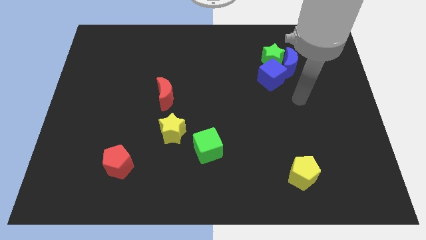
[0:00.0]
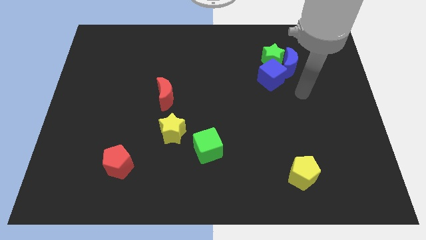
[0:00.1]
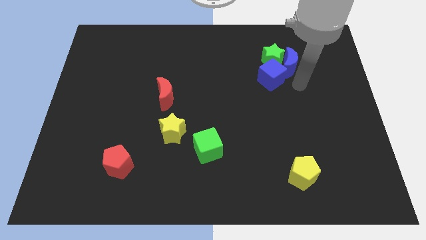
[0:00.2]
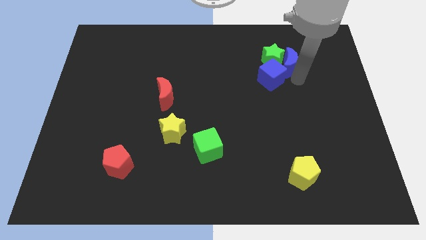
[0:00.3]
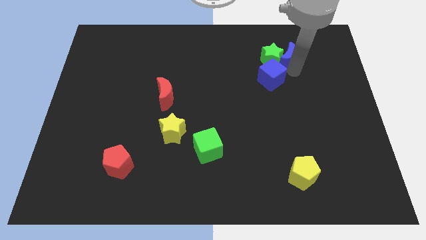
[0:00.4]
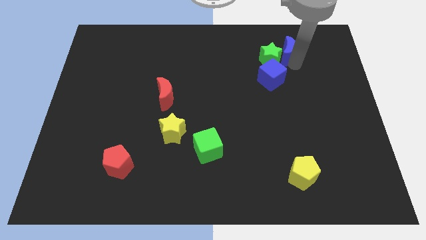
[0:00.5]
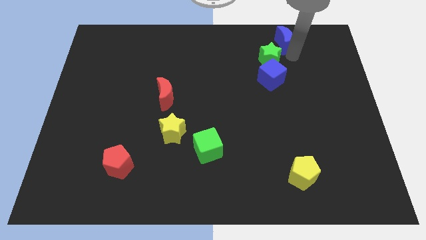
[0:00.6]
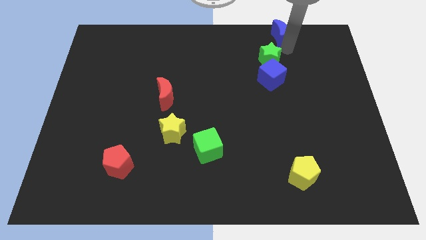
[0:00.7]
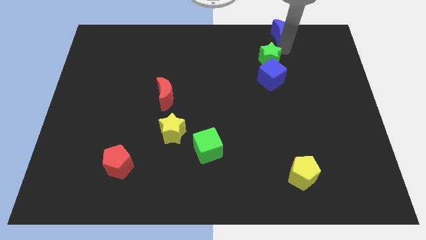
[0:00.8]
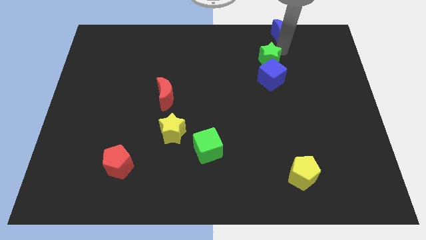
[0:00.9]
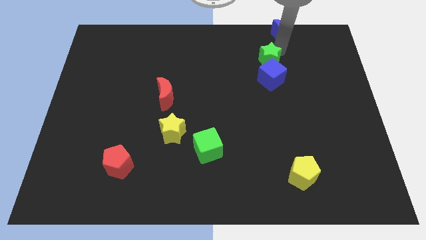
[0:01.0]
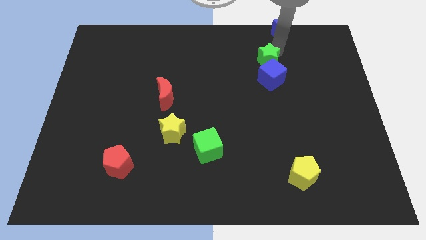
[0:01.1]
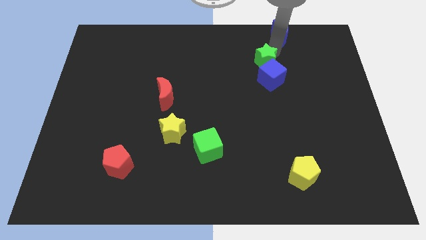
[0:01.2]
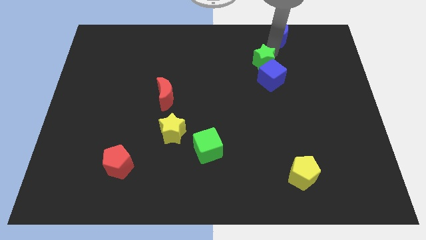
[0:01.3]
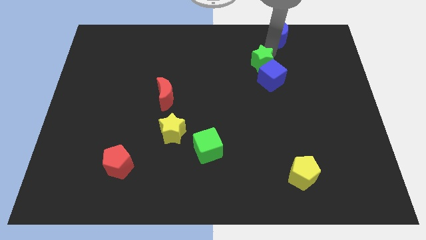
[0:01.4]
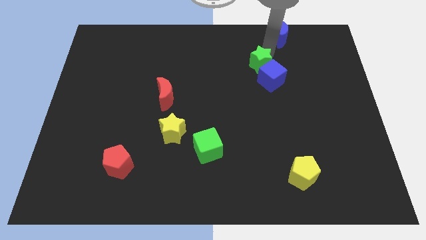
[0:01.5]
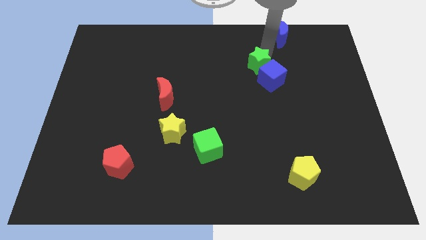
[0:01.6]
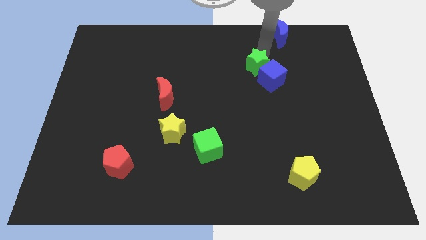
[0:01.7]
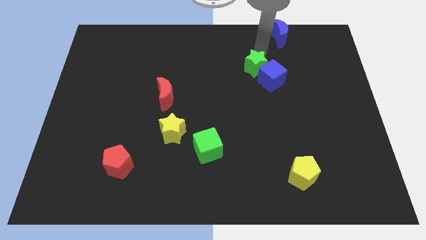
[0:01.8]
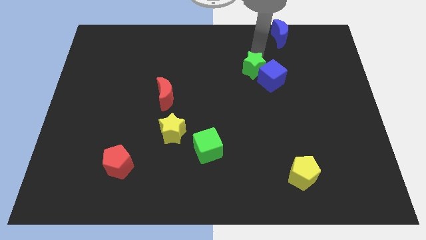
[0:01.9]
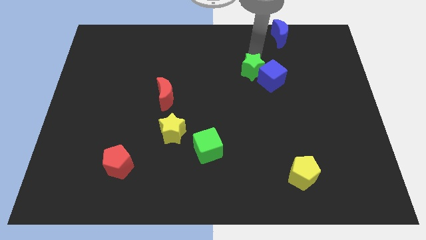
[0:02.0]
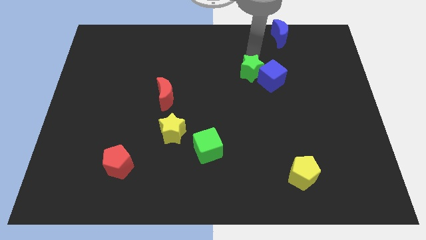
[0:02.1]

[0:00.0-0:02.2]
slide the green star a little bit downwards and left

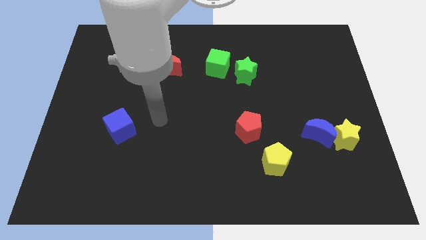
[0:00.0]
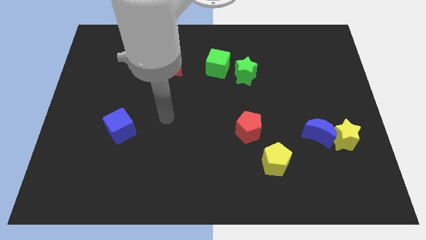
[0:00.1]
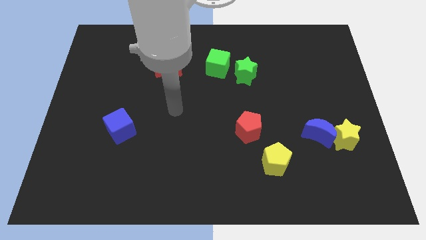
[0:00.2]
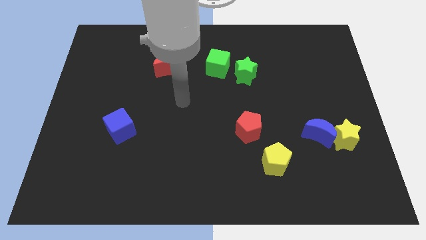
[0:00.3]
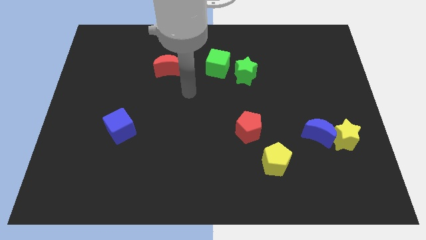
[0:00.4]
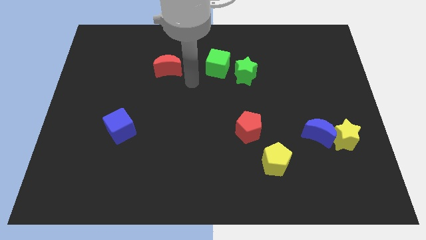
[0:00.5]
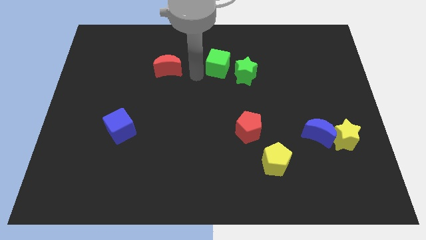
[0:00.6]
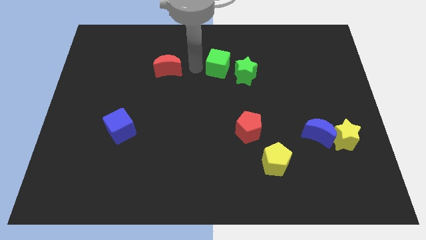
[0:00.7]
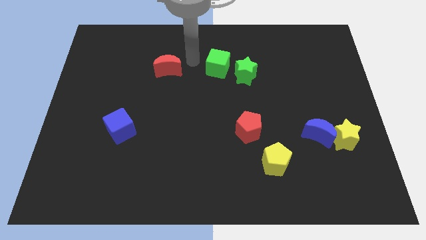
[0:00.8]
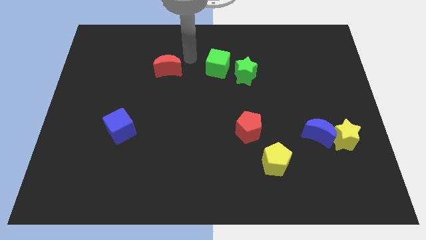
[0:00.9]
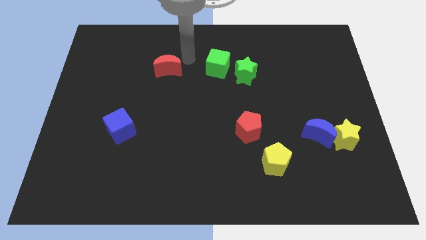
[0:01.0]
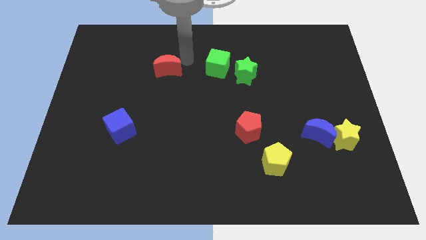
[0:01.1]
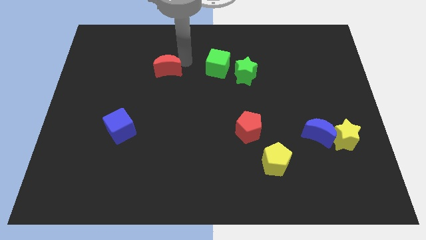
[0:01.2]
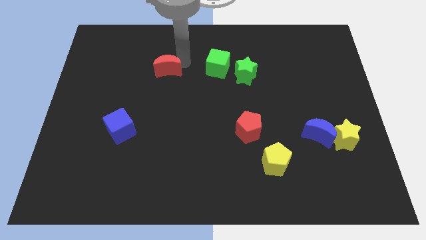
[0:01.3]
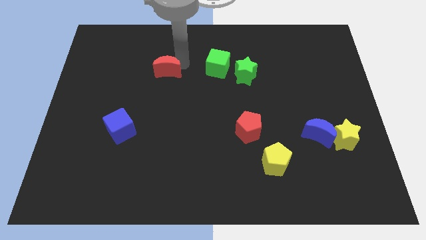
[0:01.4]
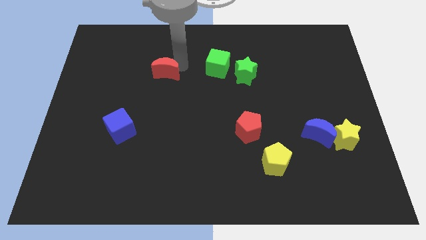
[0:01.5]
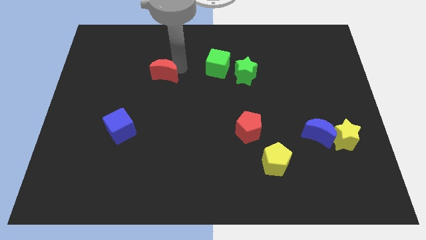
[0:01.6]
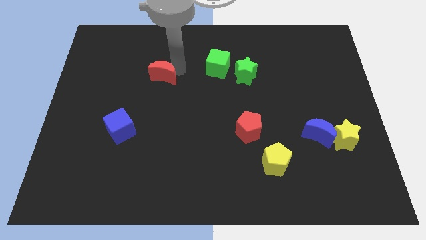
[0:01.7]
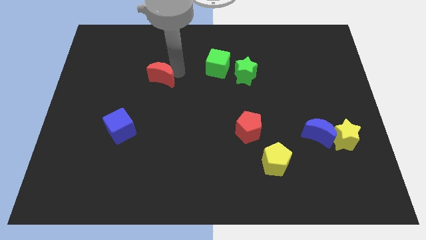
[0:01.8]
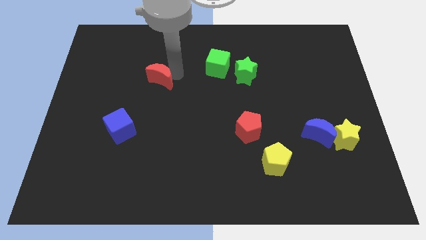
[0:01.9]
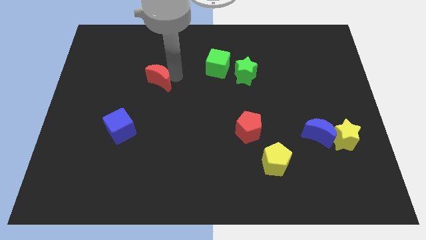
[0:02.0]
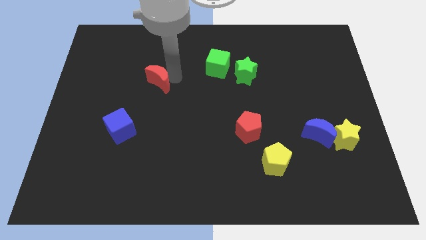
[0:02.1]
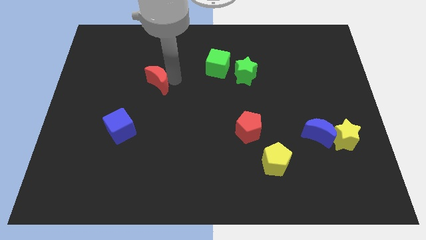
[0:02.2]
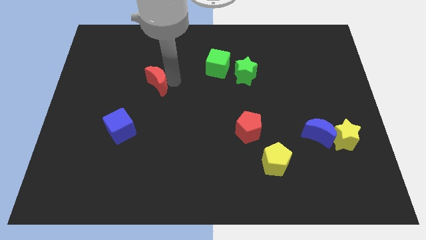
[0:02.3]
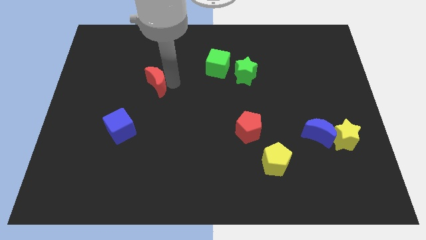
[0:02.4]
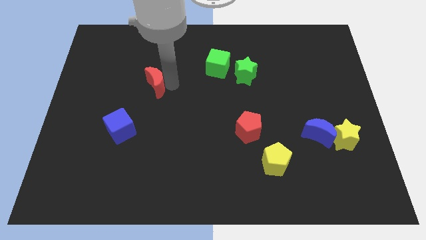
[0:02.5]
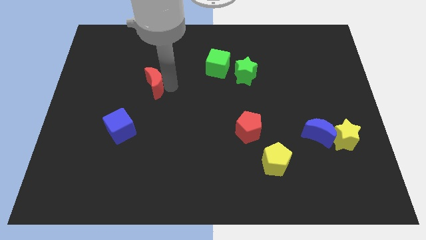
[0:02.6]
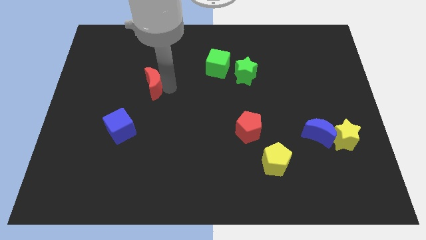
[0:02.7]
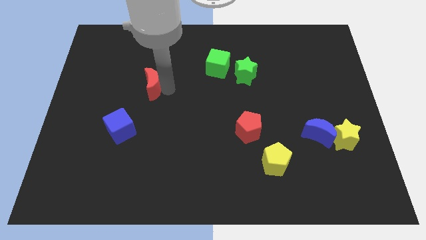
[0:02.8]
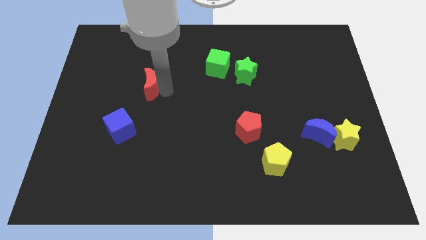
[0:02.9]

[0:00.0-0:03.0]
move the red moon downwards and to the left a little

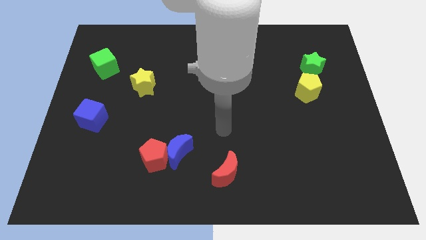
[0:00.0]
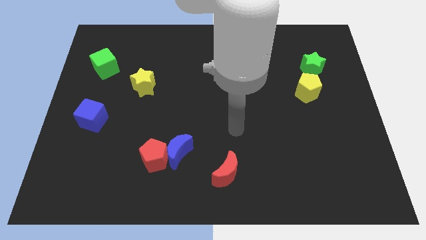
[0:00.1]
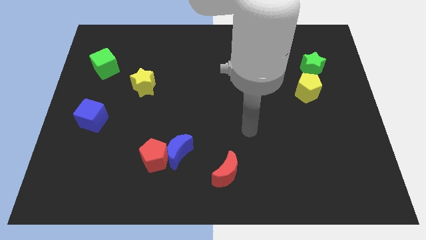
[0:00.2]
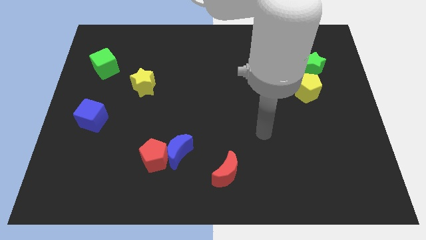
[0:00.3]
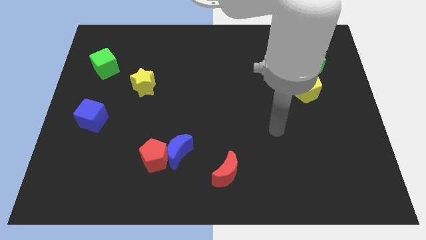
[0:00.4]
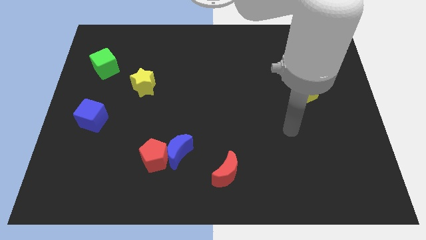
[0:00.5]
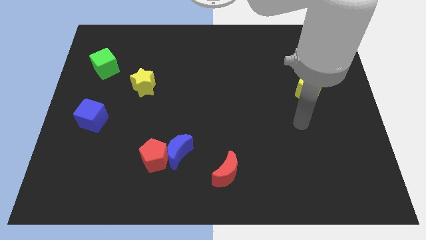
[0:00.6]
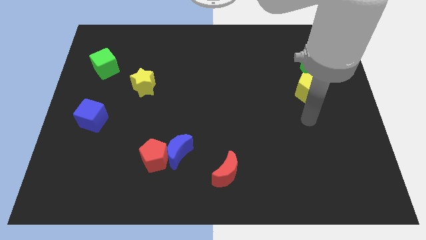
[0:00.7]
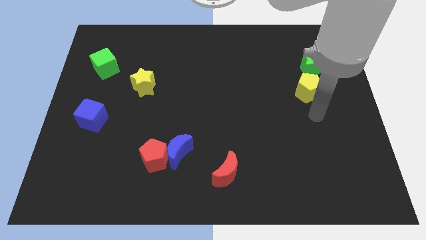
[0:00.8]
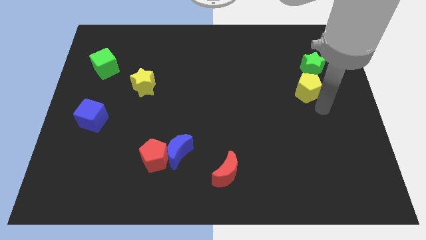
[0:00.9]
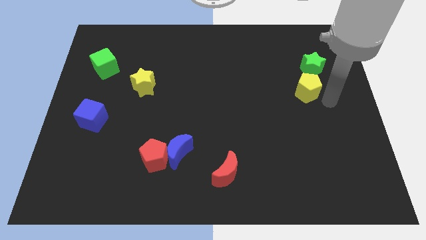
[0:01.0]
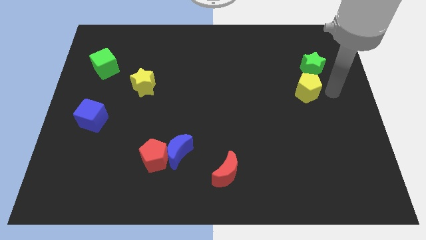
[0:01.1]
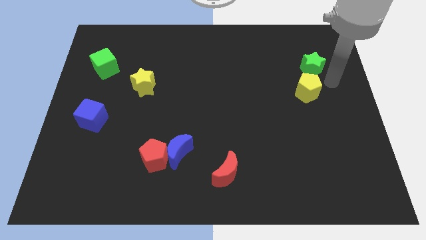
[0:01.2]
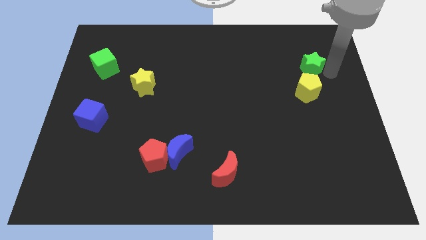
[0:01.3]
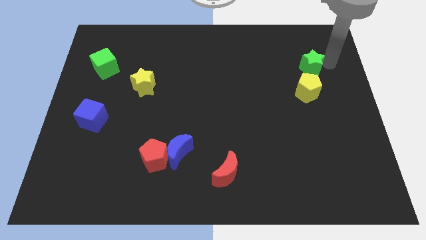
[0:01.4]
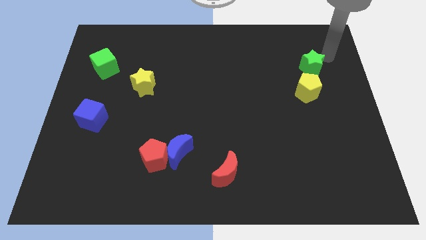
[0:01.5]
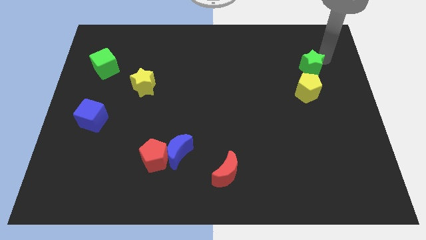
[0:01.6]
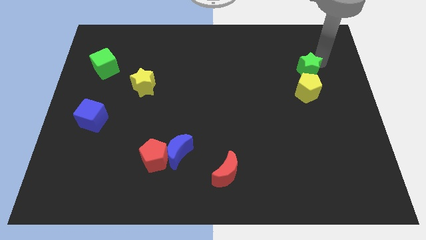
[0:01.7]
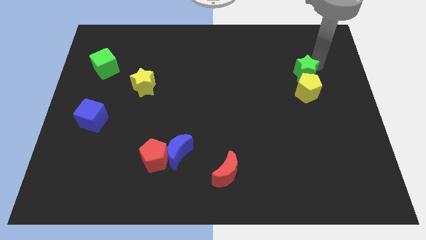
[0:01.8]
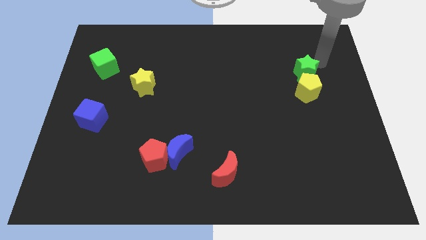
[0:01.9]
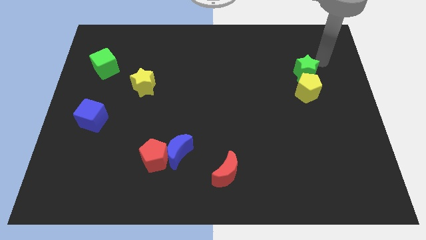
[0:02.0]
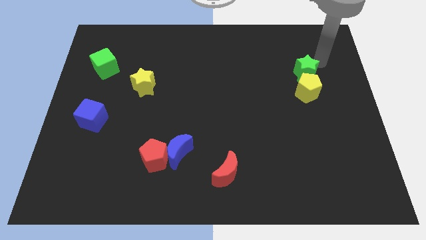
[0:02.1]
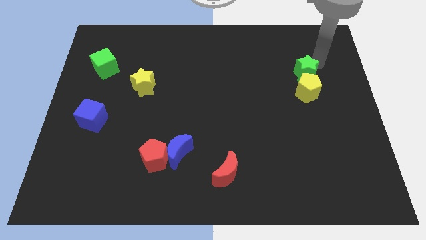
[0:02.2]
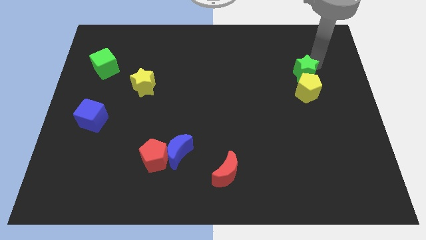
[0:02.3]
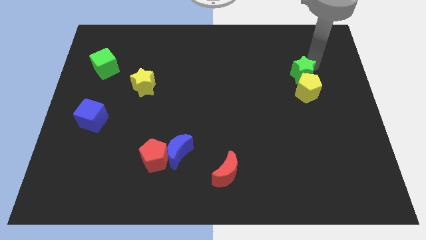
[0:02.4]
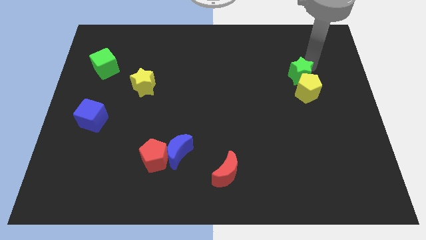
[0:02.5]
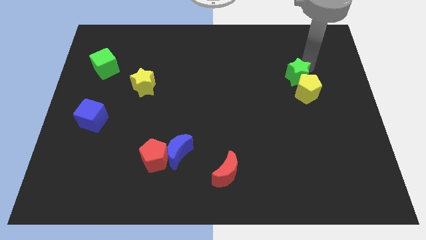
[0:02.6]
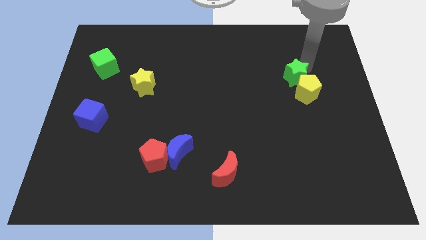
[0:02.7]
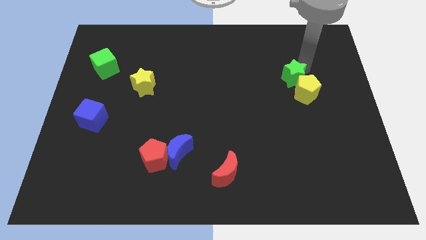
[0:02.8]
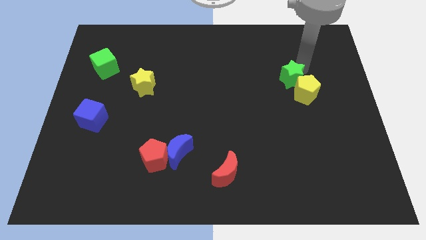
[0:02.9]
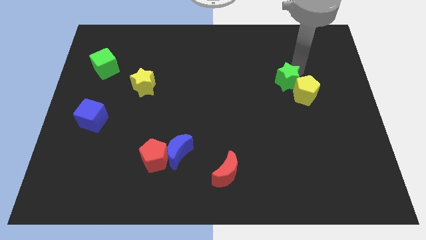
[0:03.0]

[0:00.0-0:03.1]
slightly move the green star downwards and to the left
